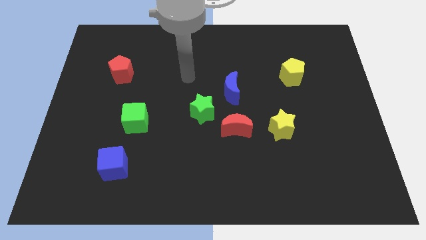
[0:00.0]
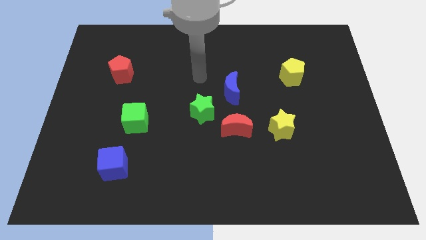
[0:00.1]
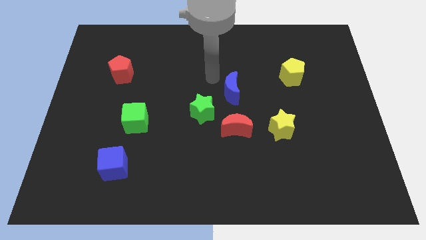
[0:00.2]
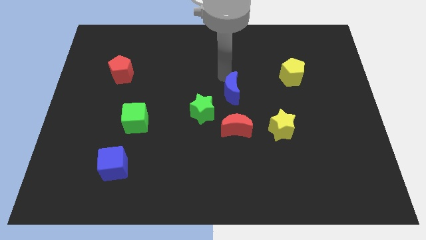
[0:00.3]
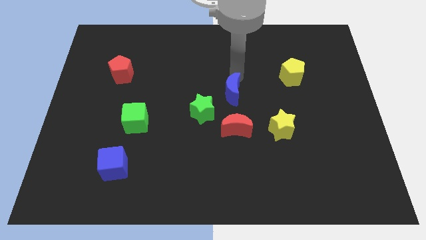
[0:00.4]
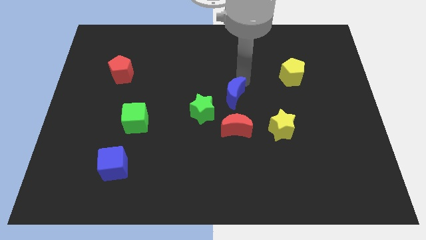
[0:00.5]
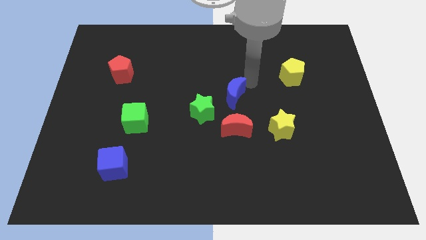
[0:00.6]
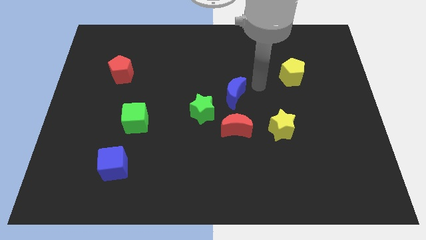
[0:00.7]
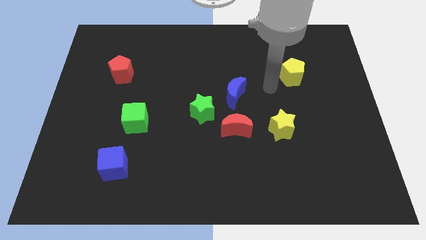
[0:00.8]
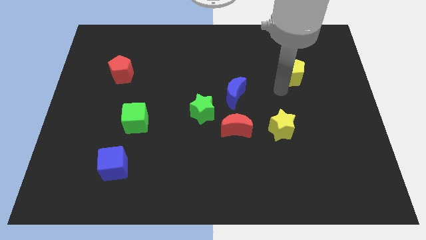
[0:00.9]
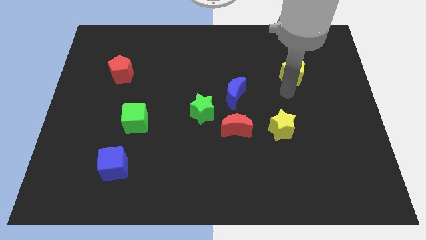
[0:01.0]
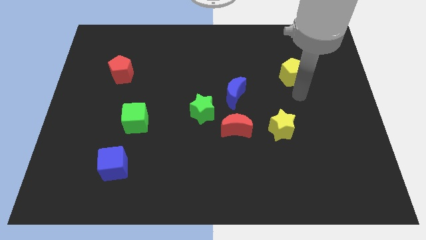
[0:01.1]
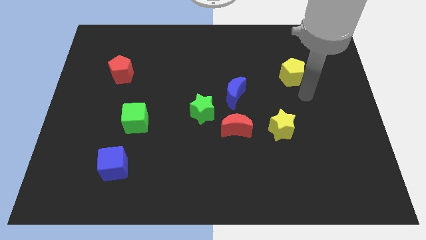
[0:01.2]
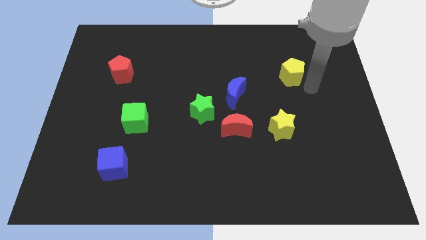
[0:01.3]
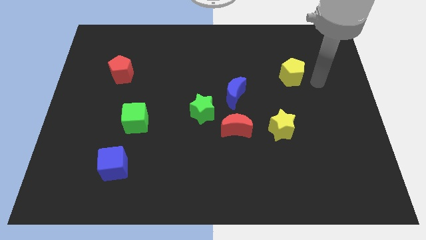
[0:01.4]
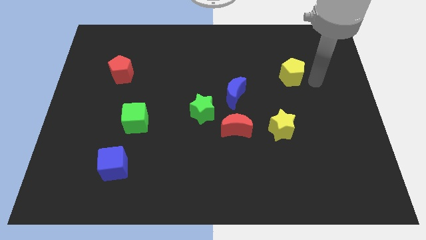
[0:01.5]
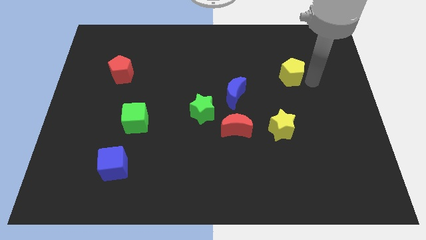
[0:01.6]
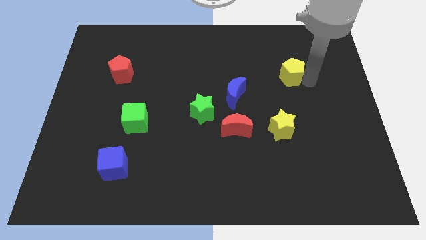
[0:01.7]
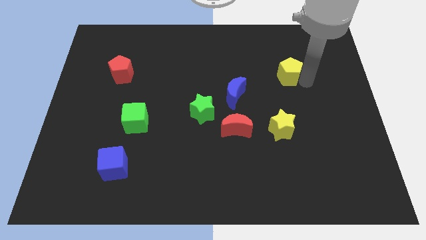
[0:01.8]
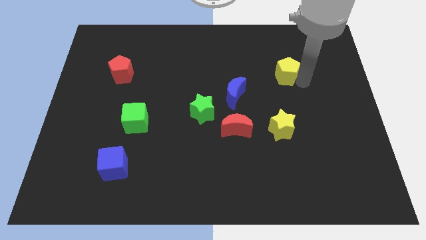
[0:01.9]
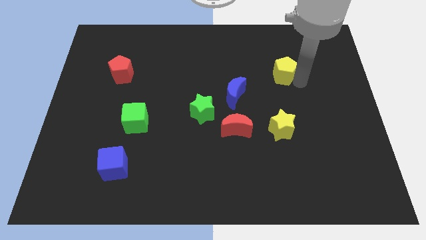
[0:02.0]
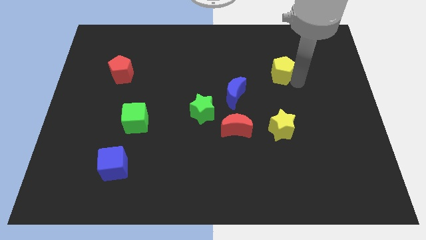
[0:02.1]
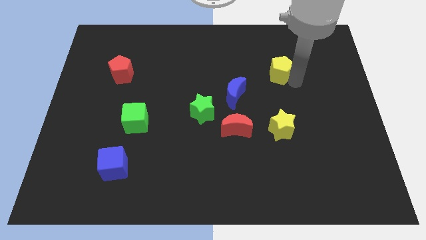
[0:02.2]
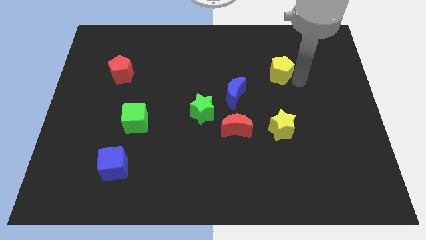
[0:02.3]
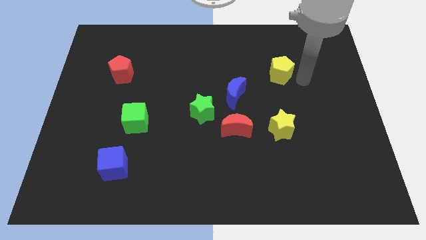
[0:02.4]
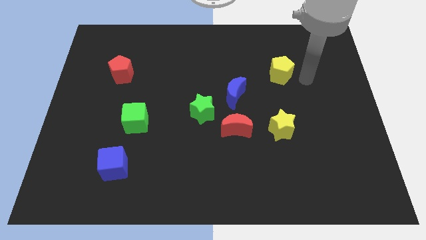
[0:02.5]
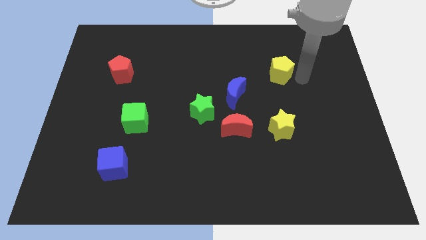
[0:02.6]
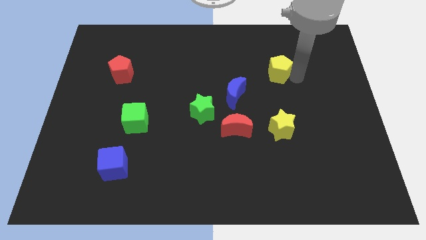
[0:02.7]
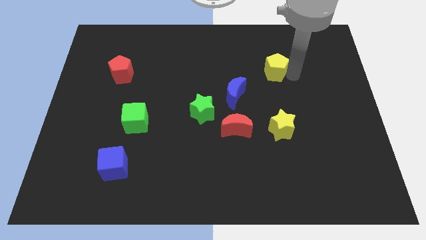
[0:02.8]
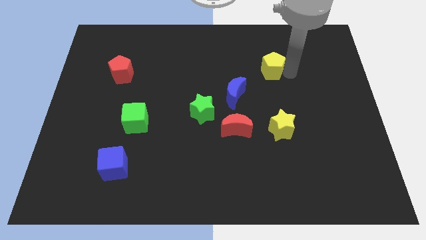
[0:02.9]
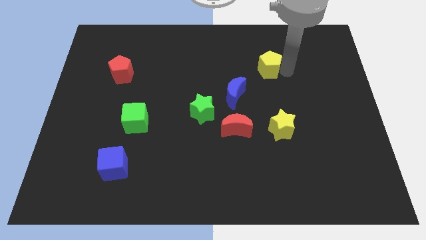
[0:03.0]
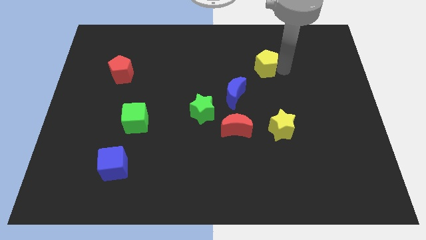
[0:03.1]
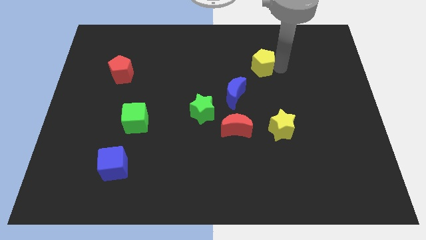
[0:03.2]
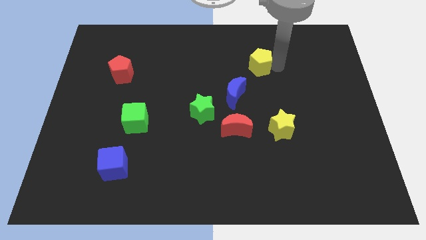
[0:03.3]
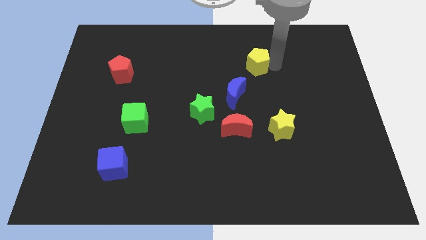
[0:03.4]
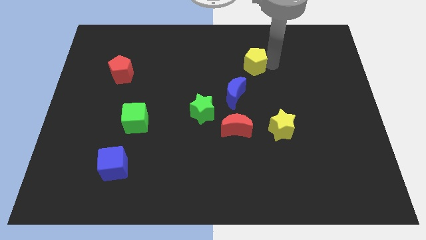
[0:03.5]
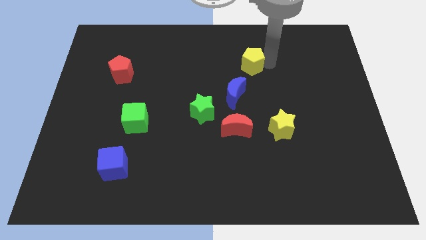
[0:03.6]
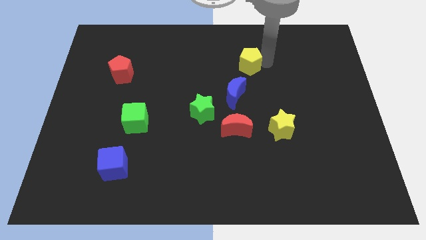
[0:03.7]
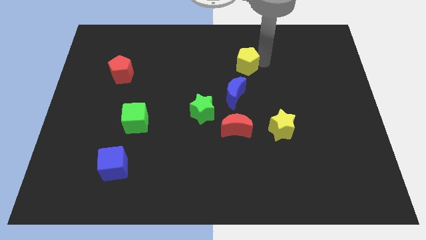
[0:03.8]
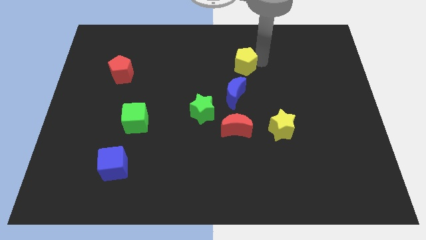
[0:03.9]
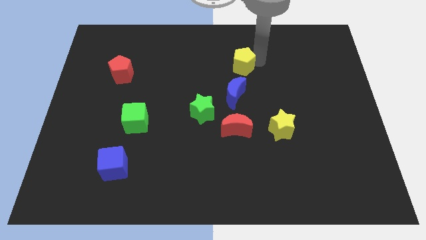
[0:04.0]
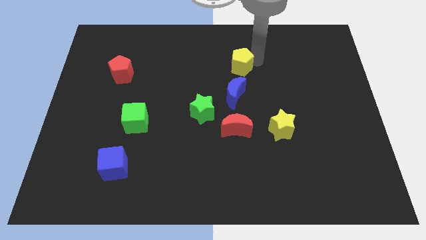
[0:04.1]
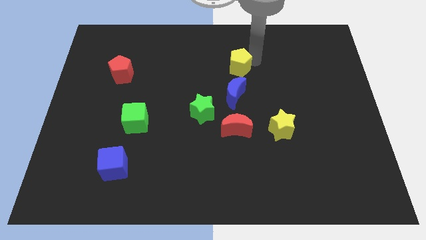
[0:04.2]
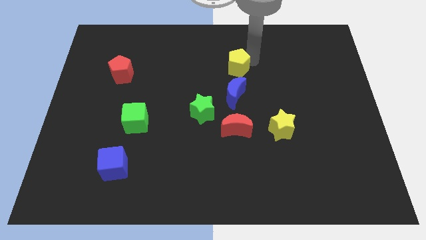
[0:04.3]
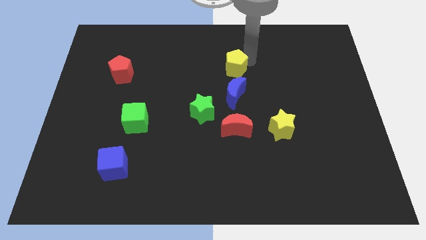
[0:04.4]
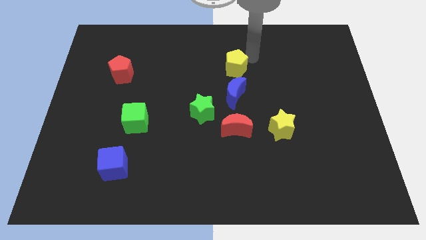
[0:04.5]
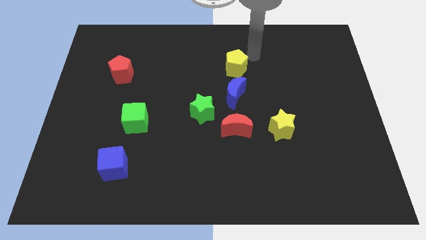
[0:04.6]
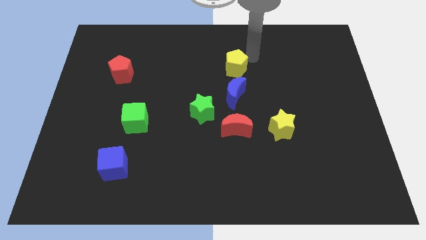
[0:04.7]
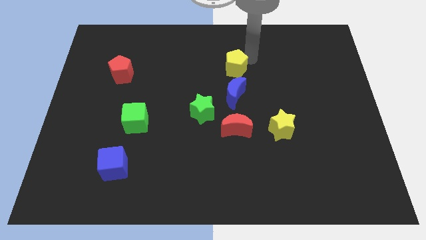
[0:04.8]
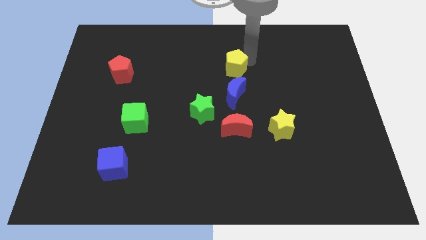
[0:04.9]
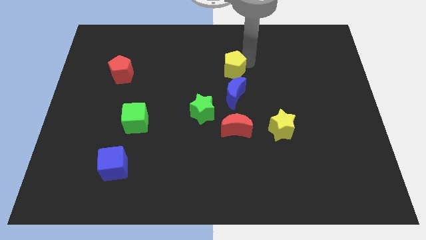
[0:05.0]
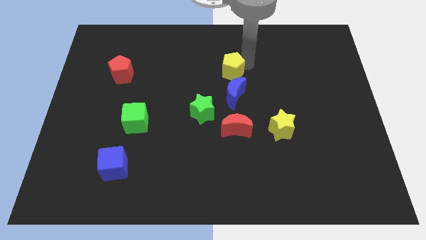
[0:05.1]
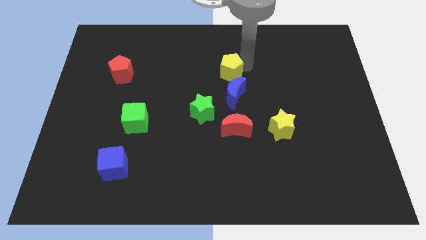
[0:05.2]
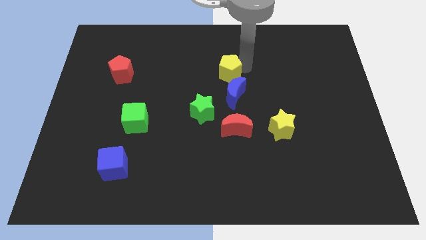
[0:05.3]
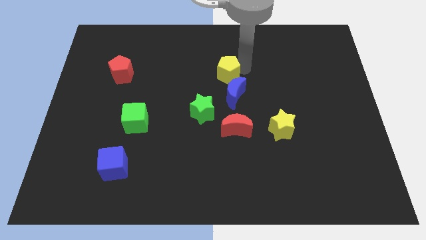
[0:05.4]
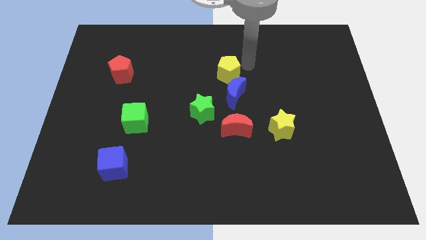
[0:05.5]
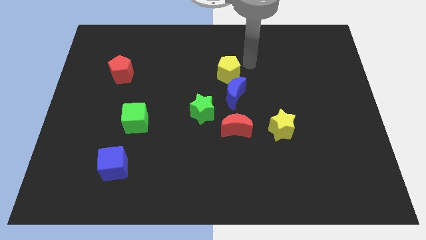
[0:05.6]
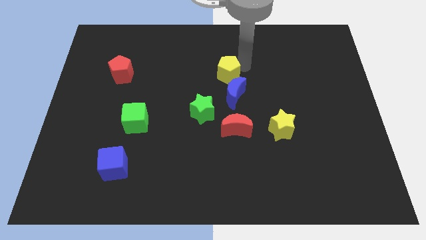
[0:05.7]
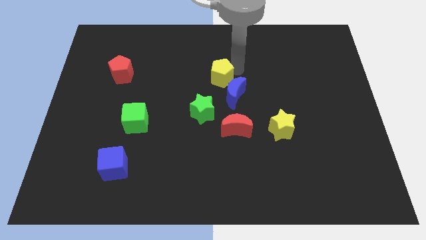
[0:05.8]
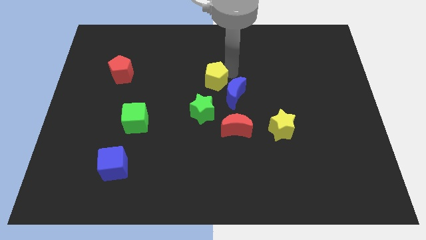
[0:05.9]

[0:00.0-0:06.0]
slide the yellow pentagon left of the blue moon

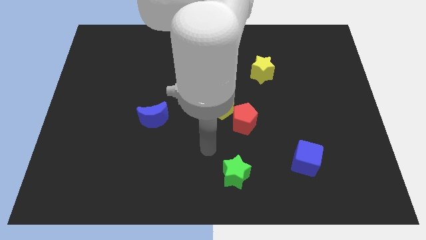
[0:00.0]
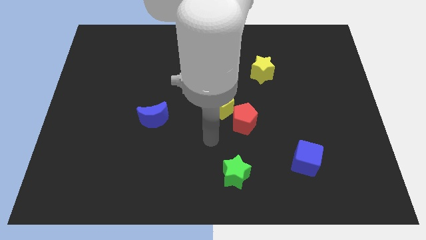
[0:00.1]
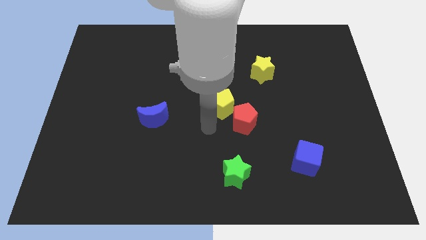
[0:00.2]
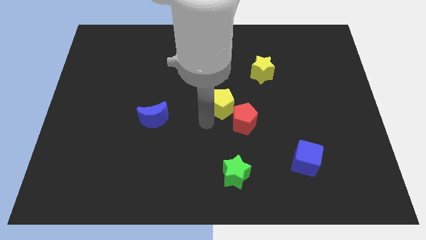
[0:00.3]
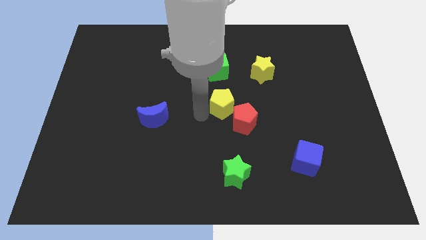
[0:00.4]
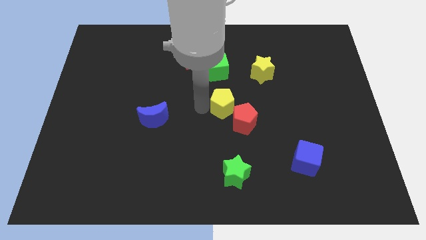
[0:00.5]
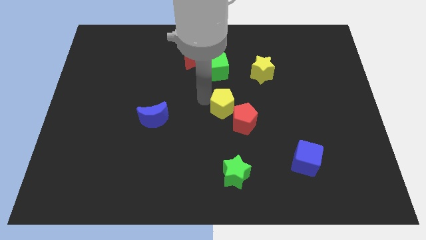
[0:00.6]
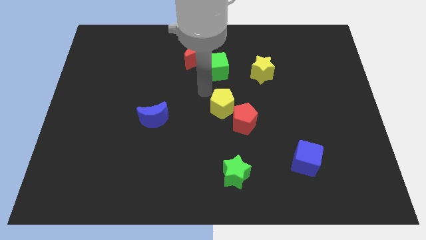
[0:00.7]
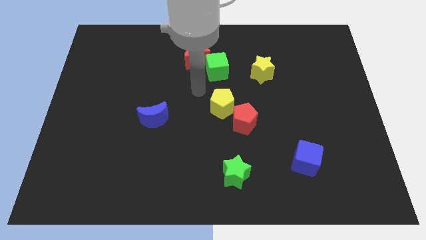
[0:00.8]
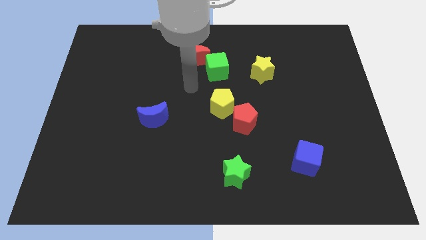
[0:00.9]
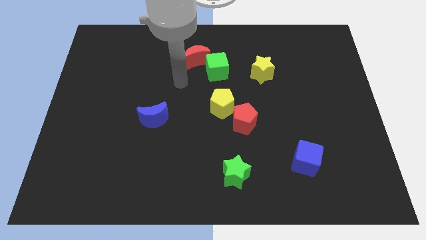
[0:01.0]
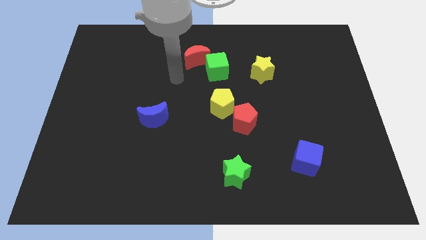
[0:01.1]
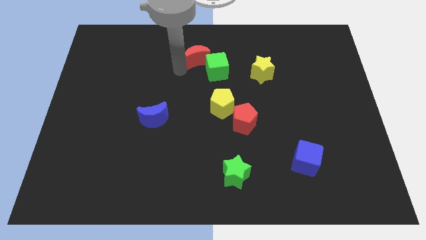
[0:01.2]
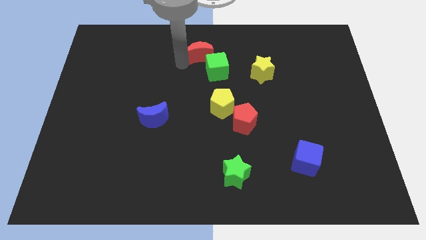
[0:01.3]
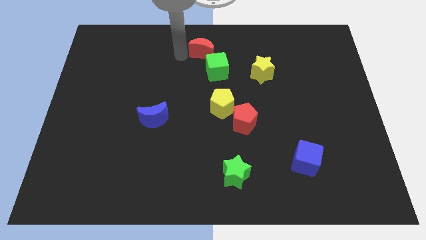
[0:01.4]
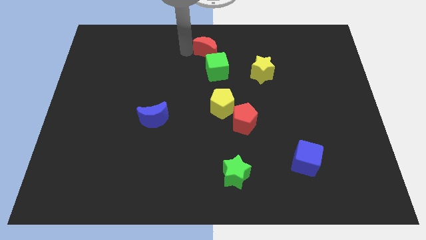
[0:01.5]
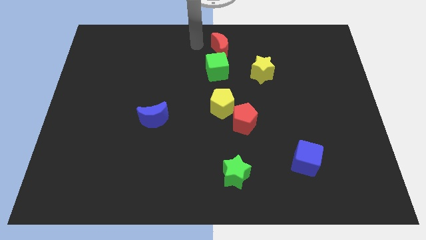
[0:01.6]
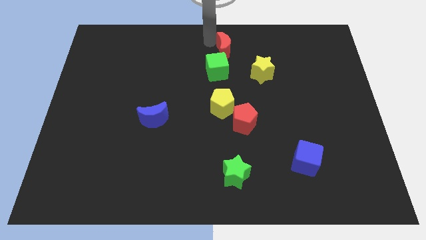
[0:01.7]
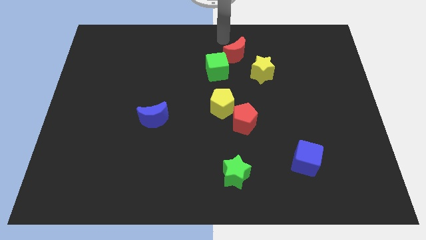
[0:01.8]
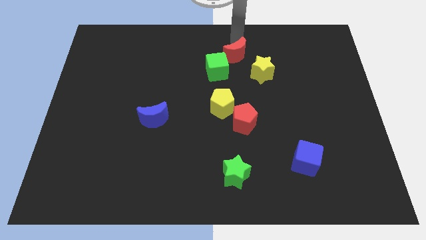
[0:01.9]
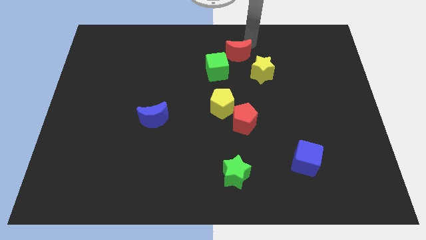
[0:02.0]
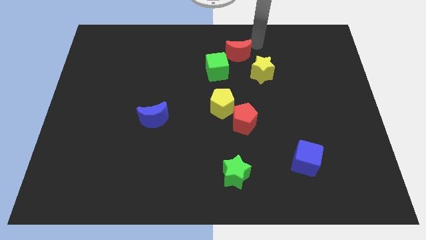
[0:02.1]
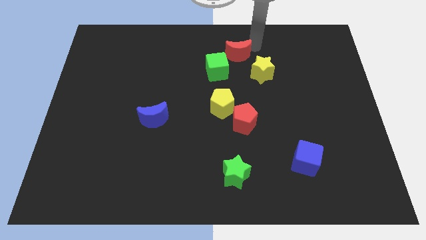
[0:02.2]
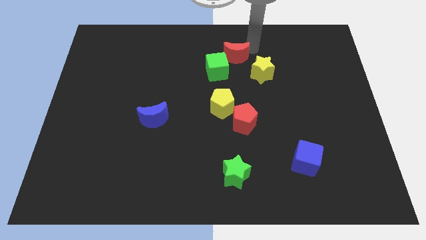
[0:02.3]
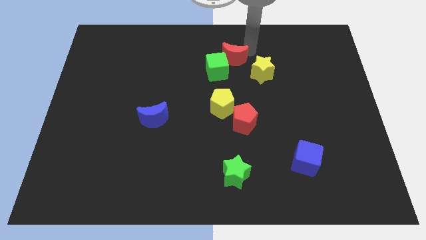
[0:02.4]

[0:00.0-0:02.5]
move the red moon left of the yellow star
